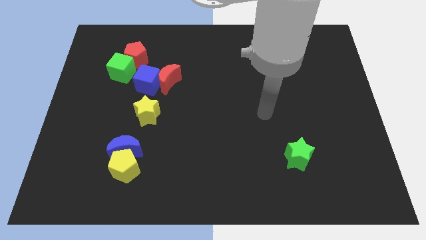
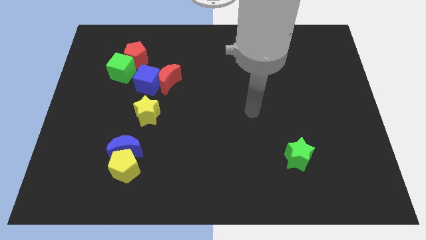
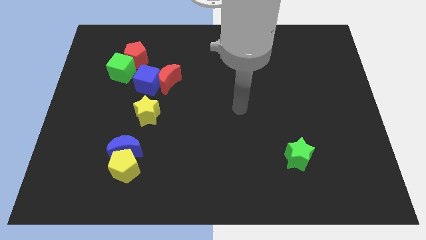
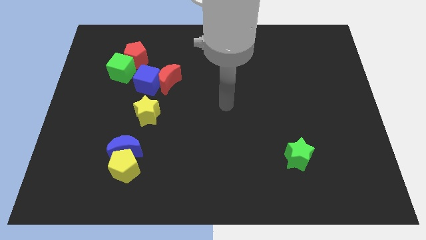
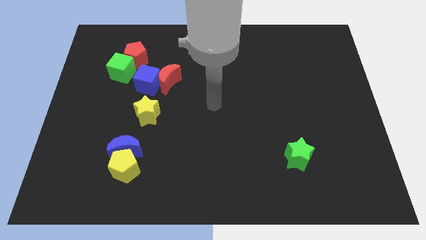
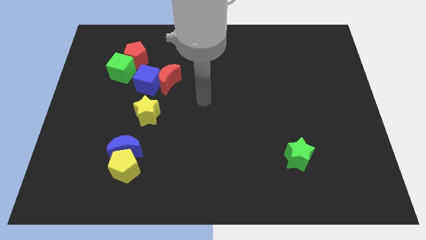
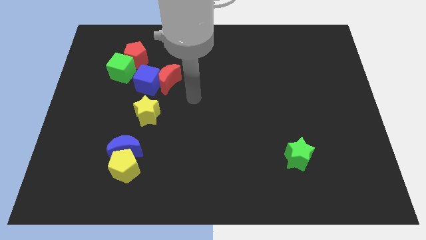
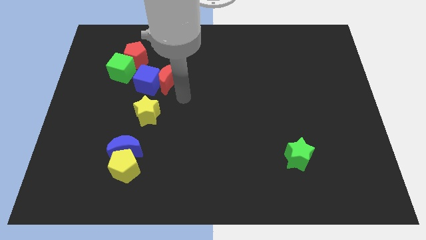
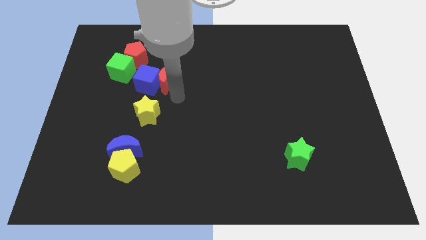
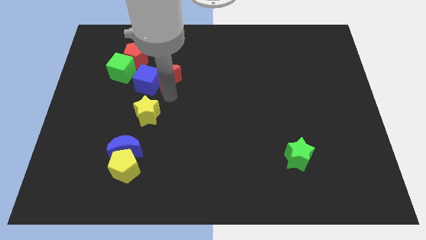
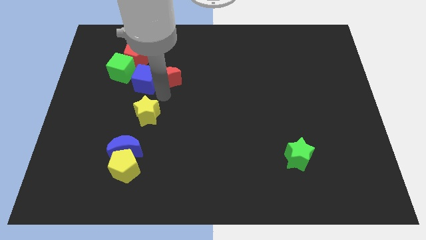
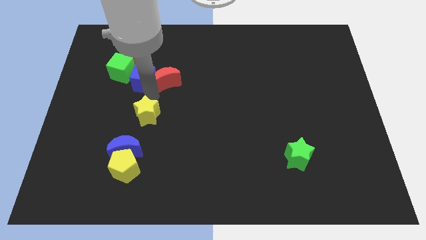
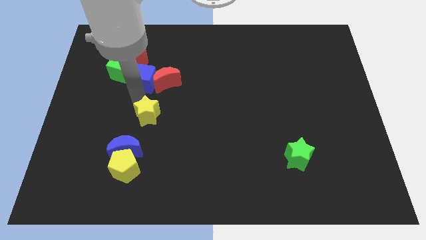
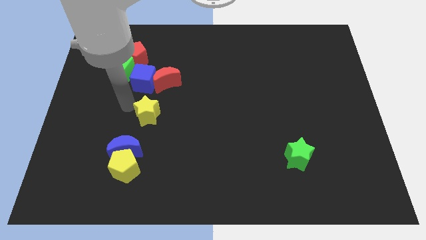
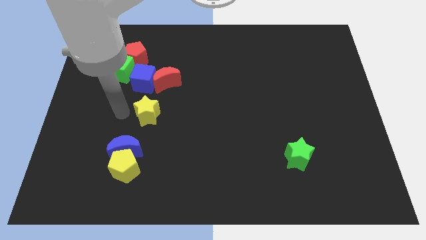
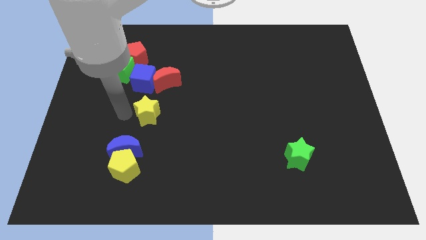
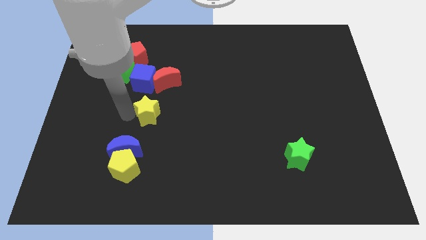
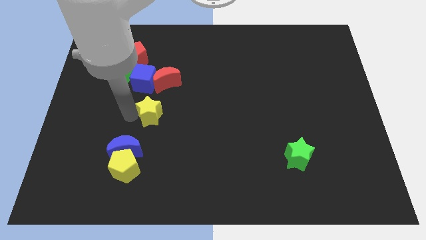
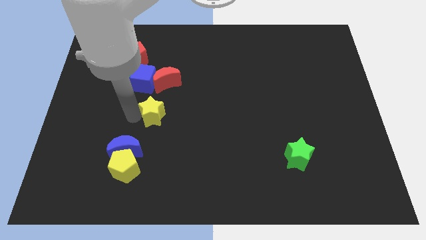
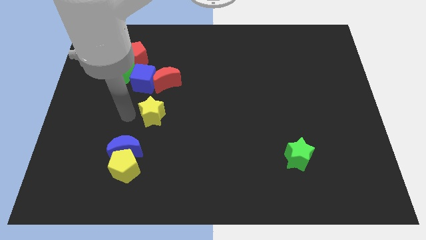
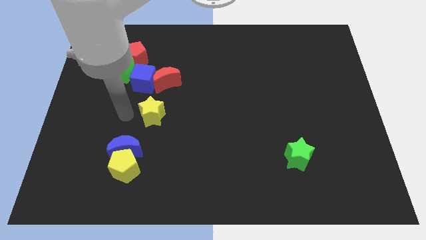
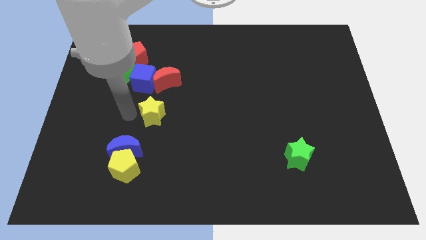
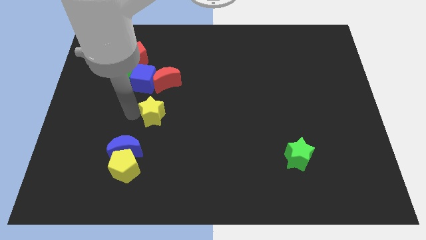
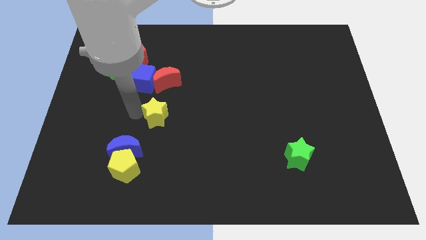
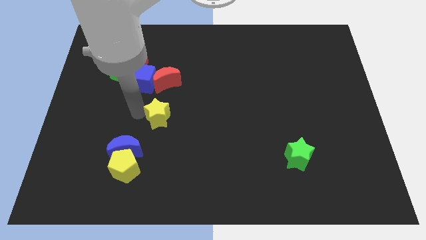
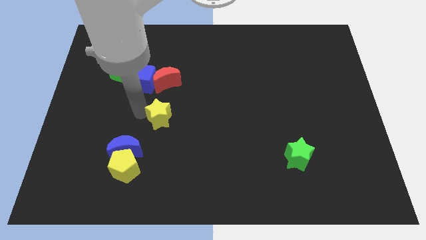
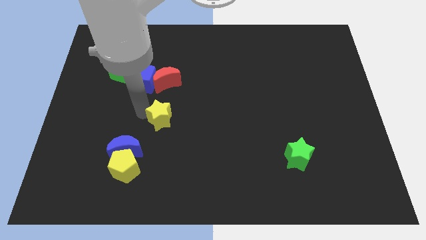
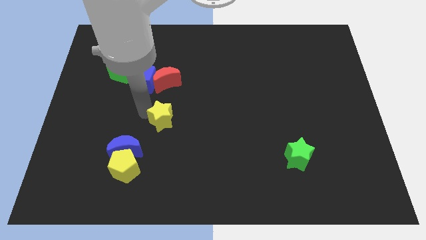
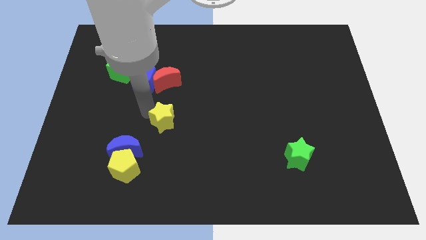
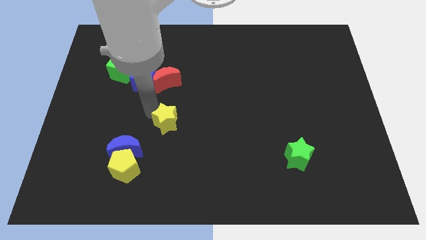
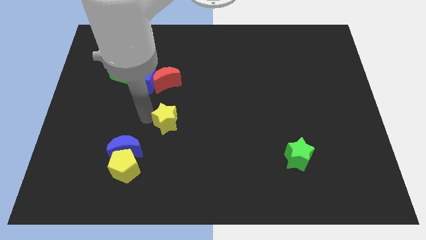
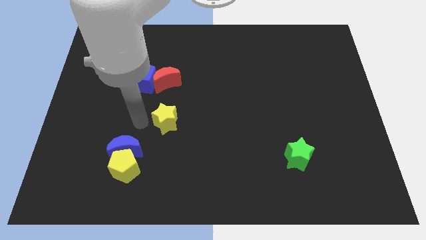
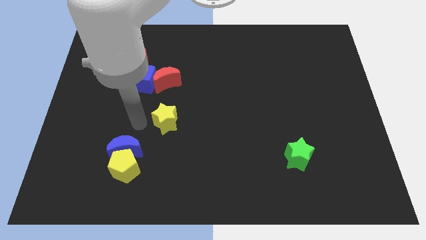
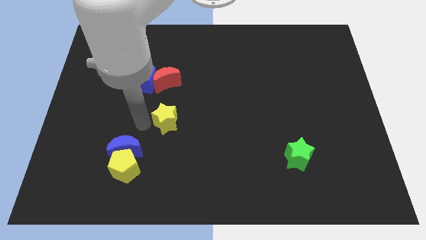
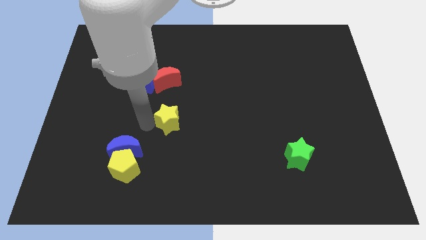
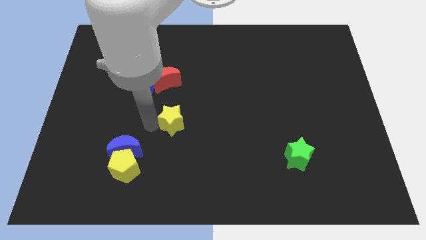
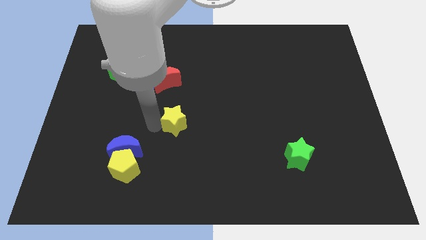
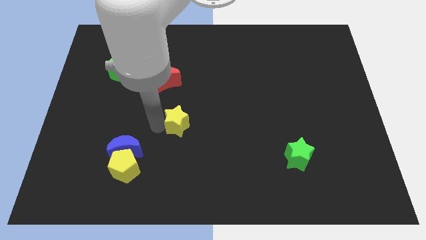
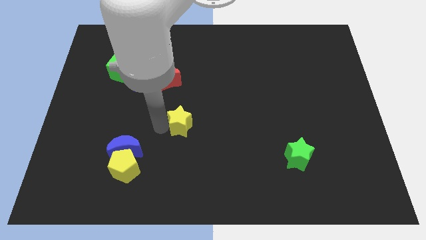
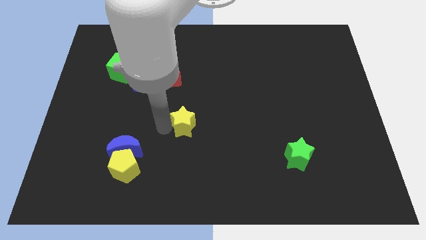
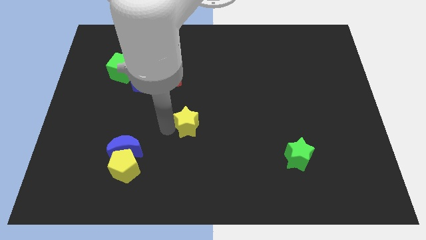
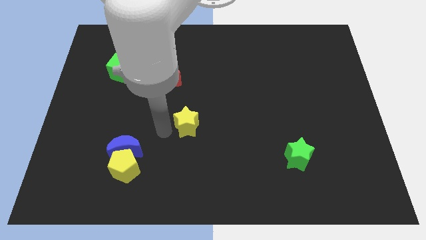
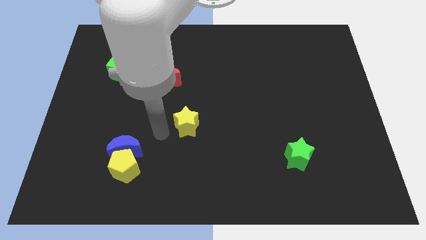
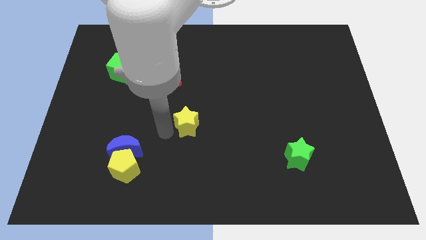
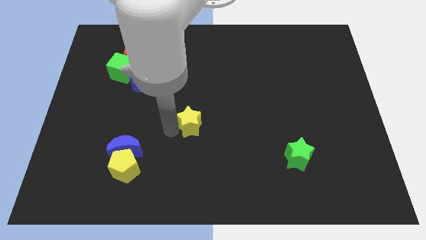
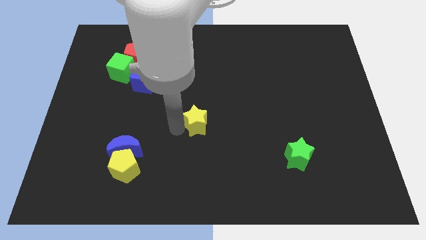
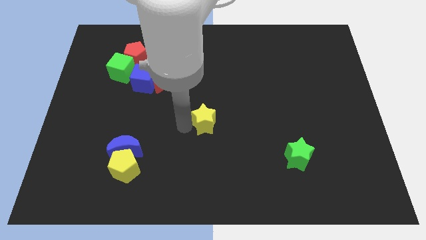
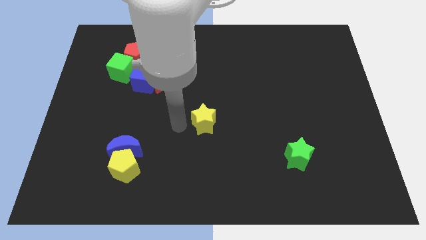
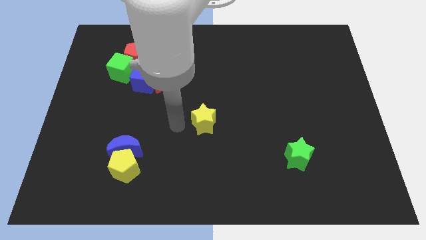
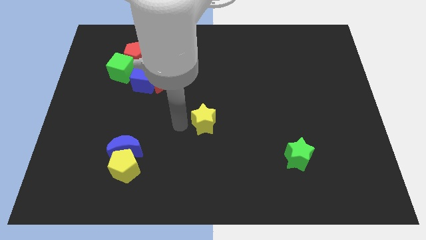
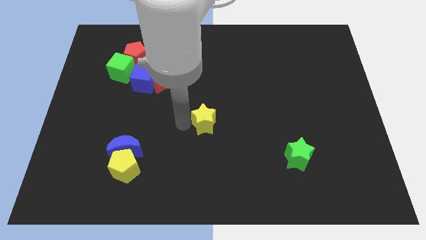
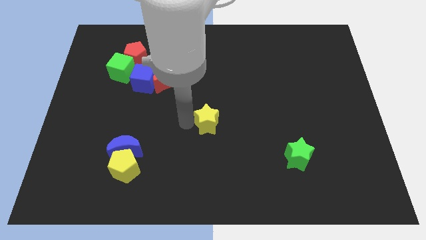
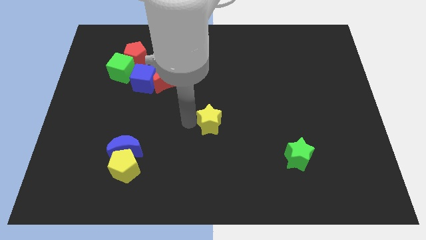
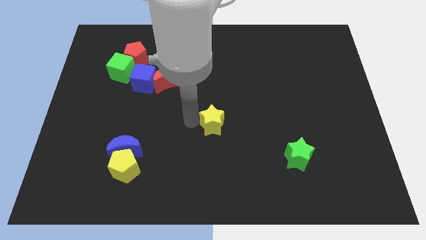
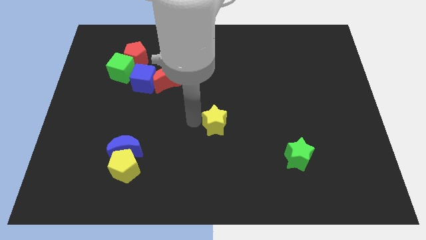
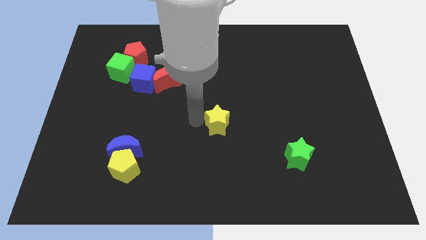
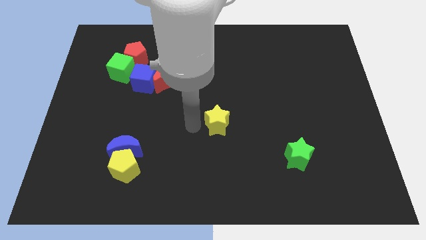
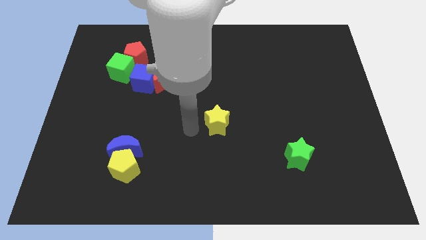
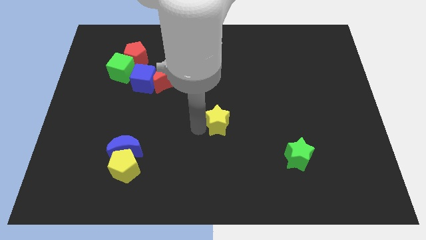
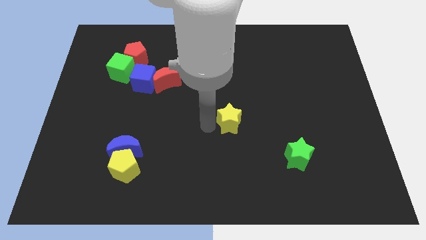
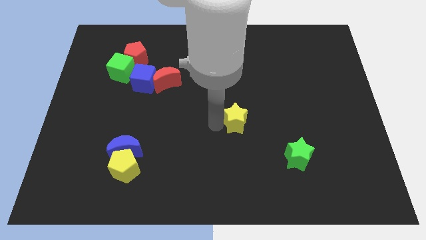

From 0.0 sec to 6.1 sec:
move the yellow star right

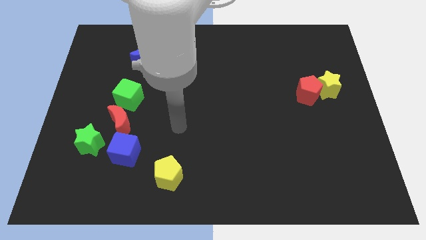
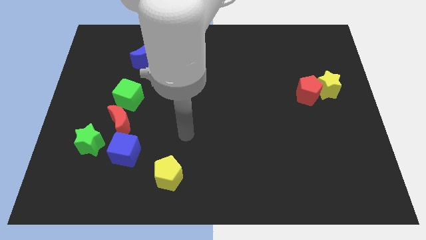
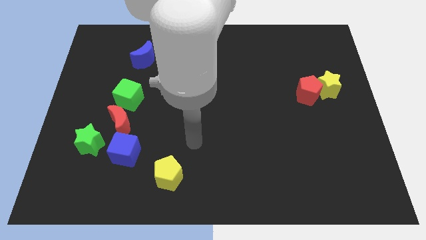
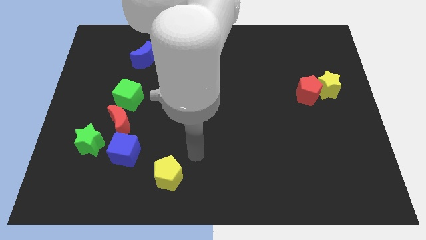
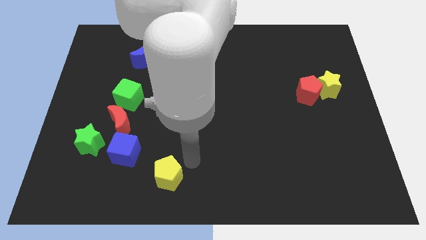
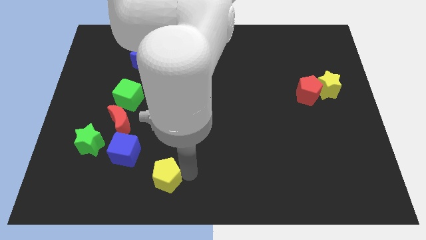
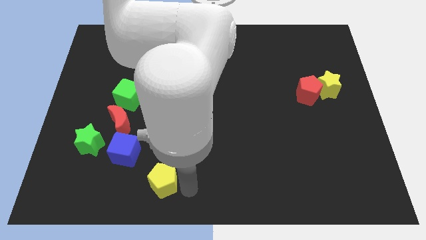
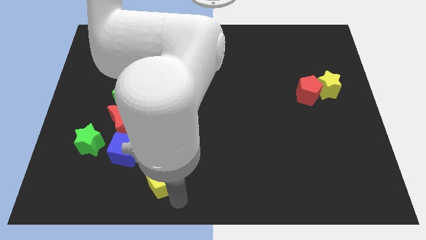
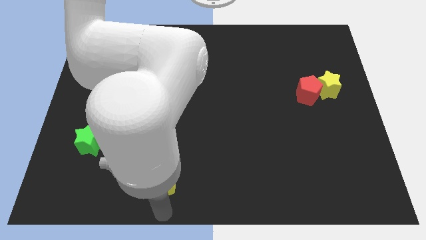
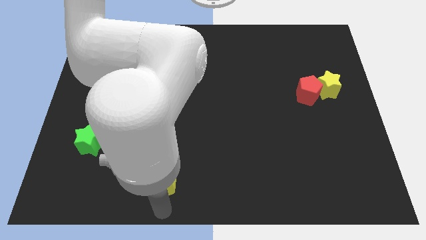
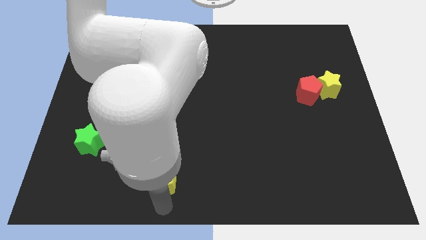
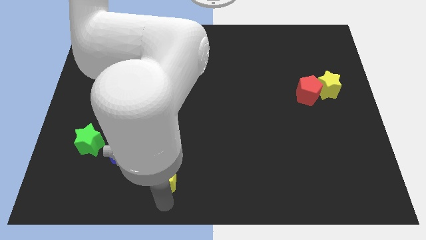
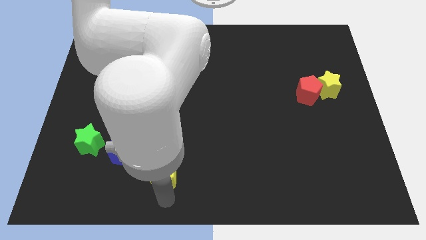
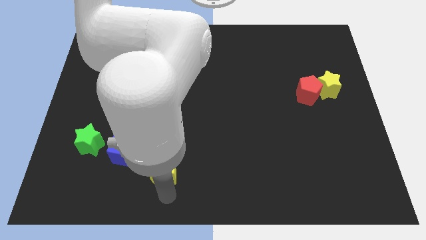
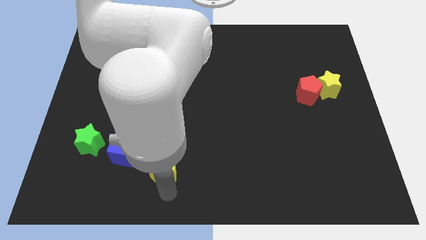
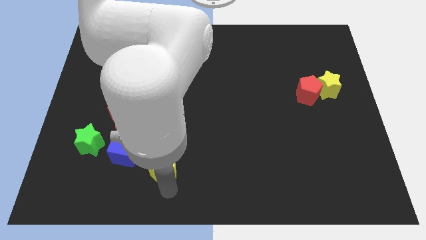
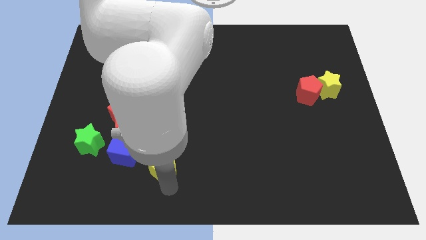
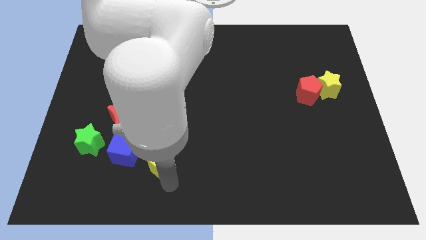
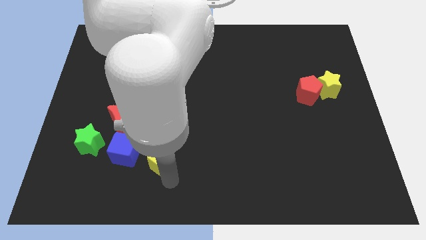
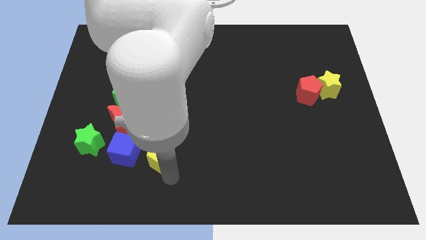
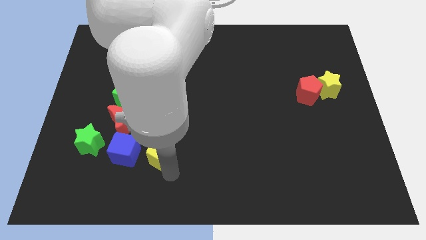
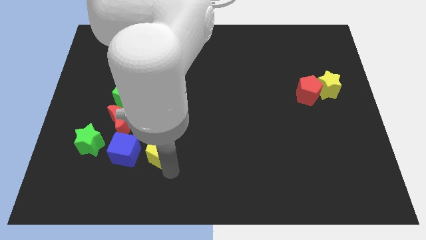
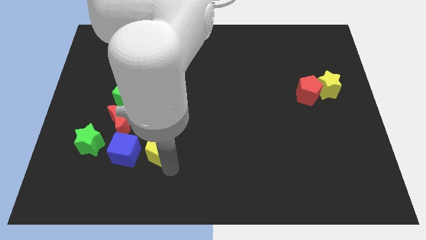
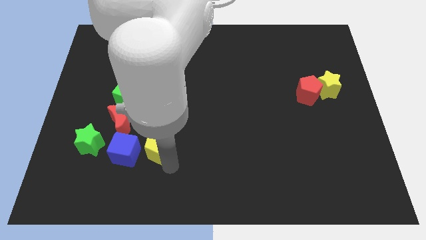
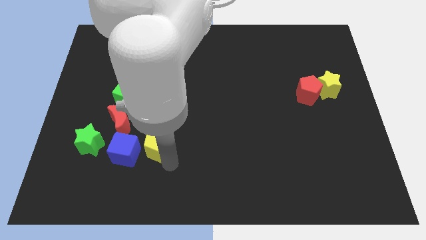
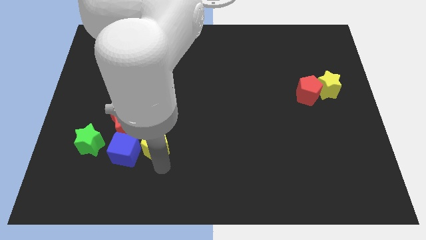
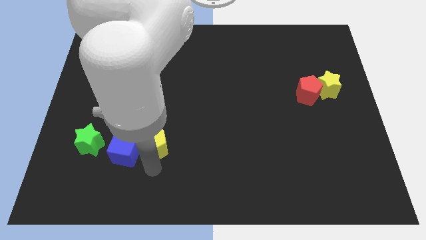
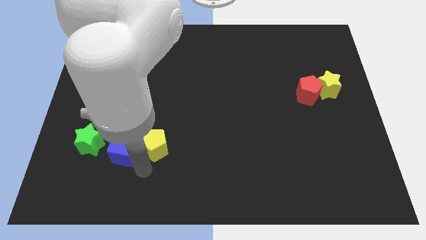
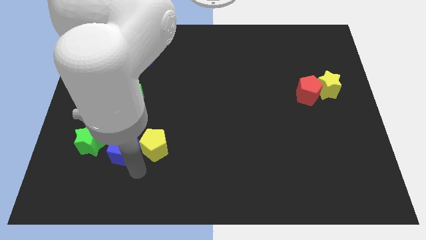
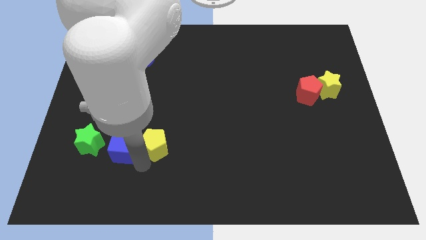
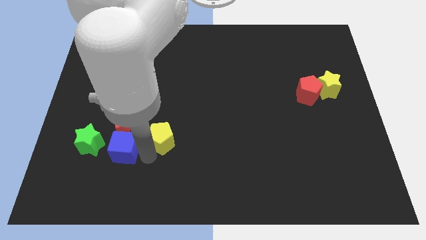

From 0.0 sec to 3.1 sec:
move the yellow pentagon a little upwards
